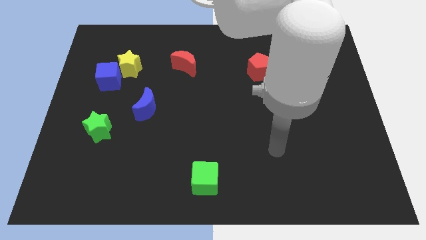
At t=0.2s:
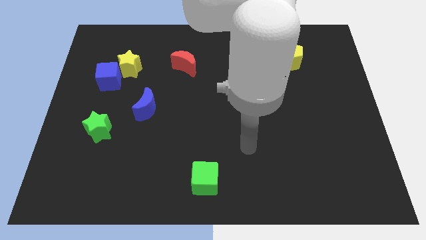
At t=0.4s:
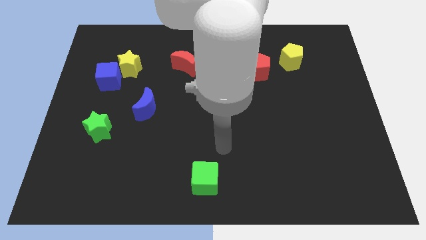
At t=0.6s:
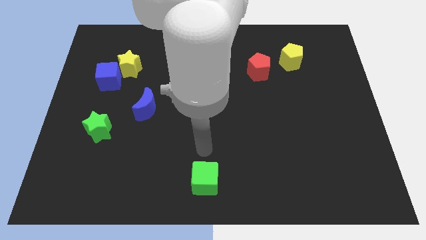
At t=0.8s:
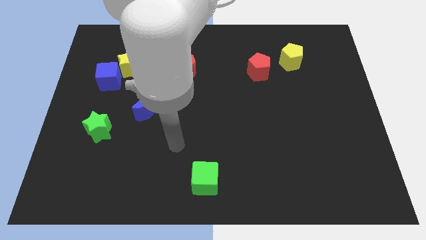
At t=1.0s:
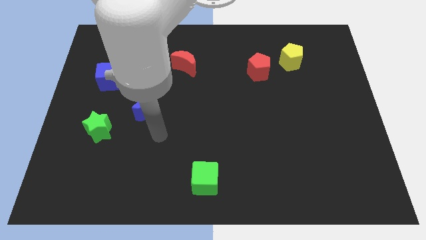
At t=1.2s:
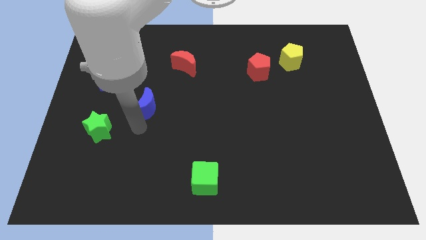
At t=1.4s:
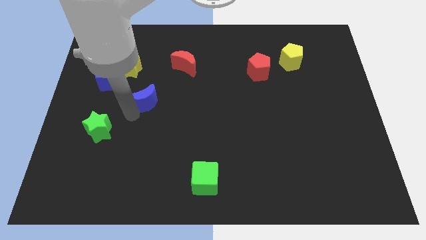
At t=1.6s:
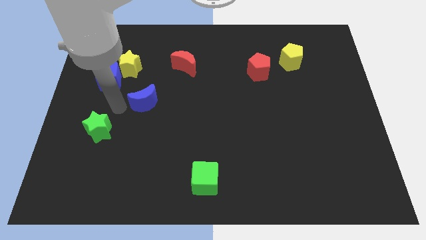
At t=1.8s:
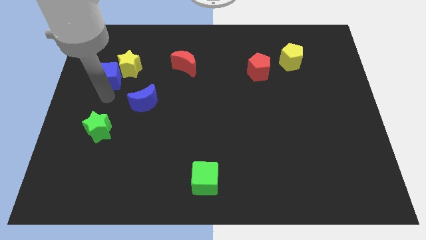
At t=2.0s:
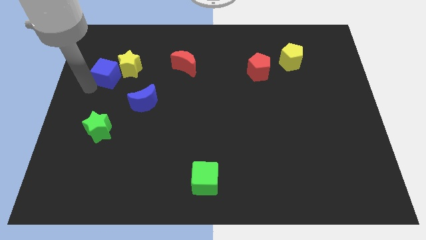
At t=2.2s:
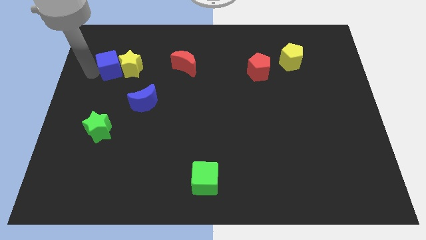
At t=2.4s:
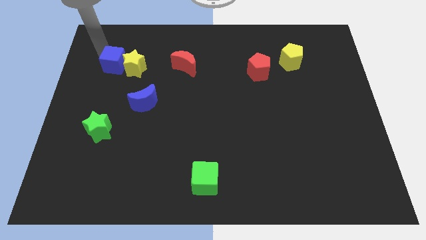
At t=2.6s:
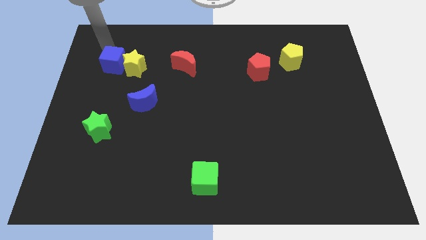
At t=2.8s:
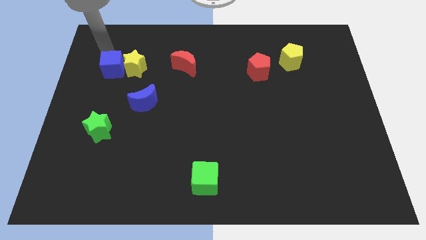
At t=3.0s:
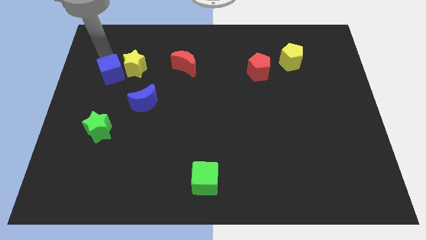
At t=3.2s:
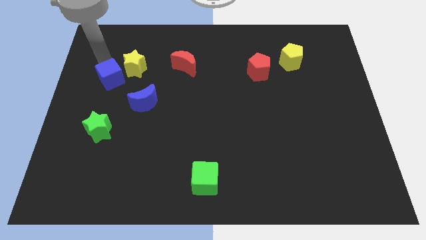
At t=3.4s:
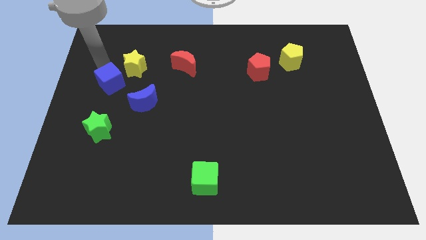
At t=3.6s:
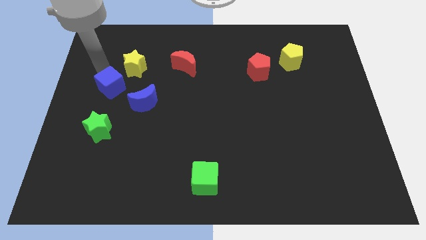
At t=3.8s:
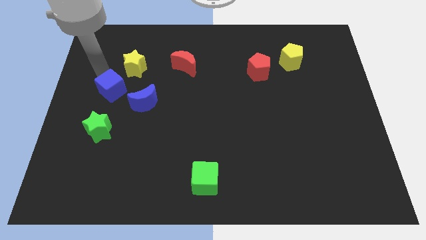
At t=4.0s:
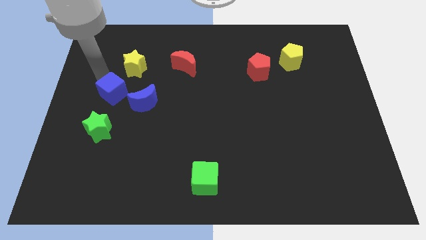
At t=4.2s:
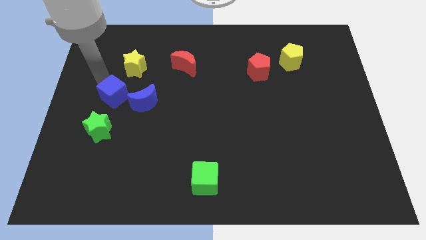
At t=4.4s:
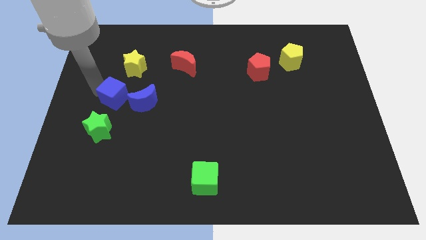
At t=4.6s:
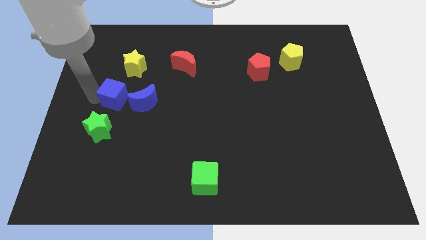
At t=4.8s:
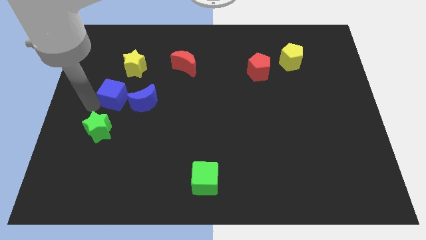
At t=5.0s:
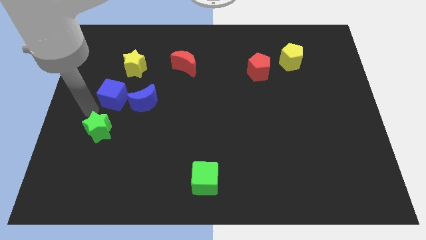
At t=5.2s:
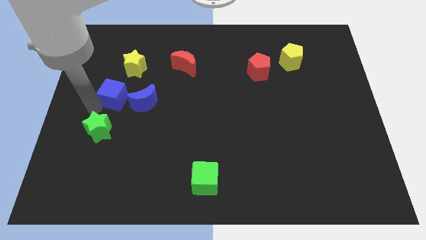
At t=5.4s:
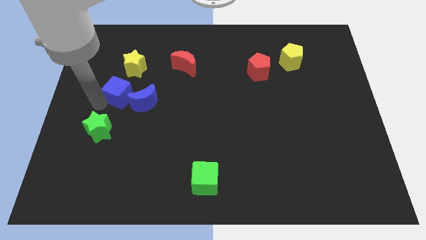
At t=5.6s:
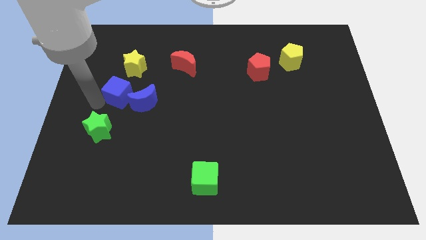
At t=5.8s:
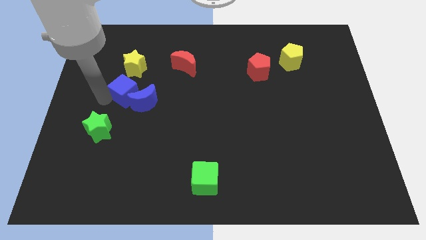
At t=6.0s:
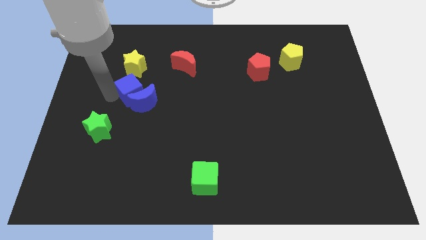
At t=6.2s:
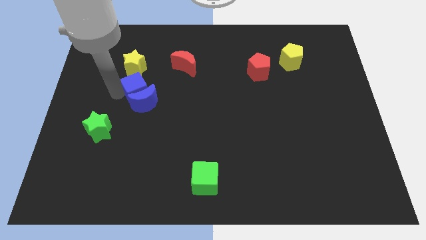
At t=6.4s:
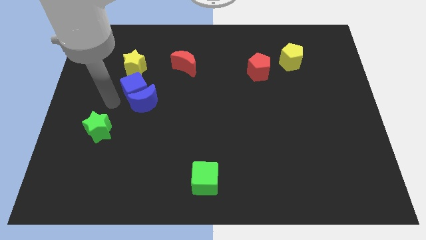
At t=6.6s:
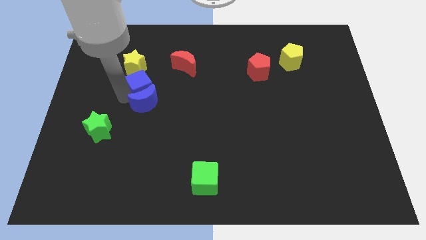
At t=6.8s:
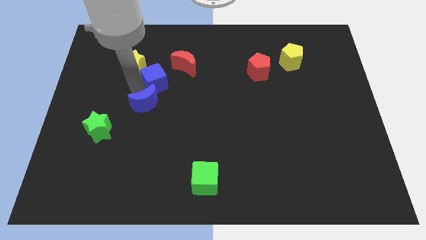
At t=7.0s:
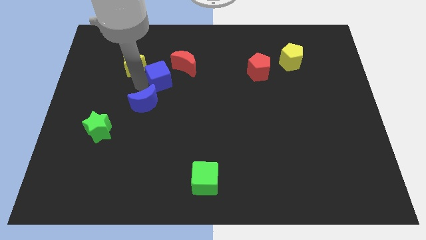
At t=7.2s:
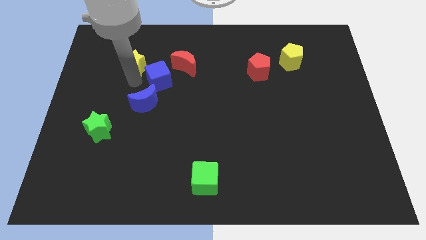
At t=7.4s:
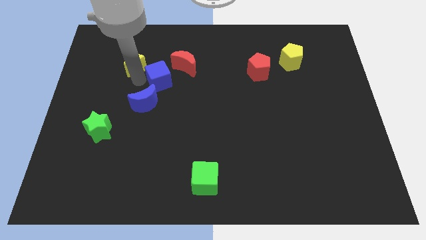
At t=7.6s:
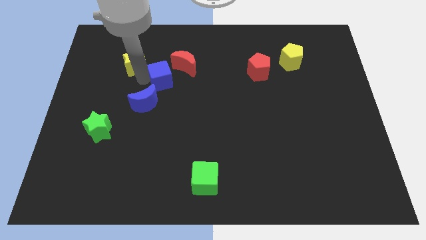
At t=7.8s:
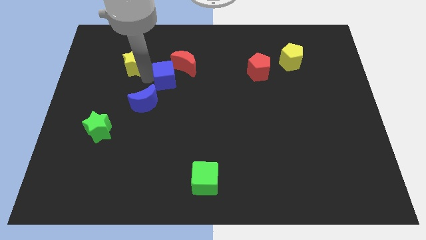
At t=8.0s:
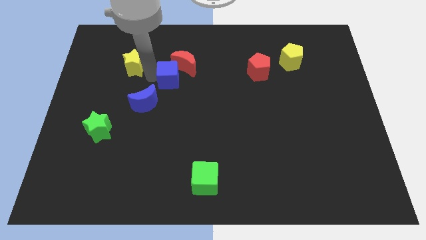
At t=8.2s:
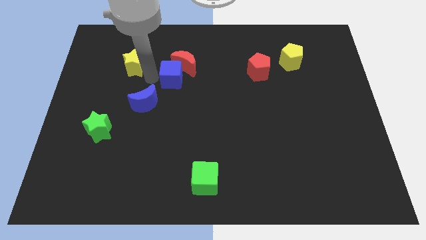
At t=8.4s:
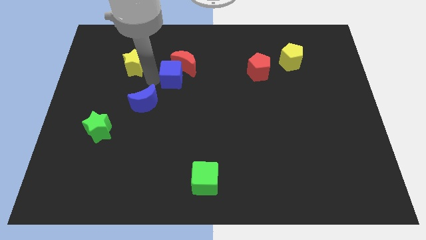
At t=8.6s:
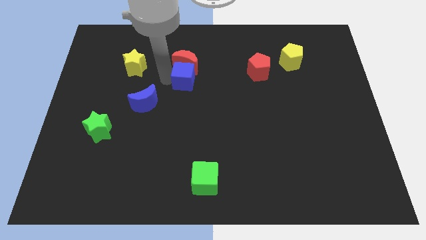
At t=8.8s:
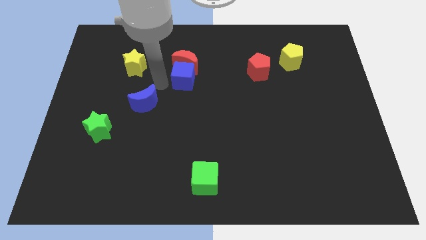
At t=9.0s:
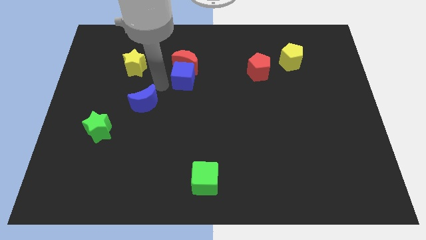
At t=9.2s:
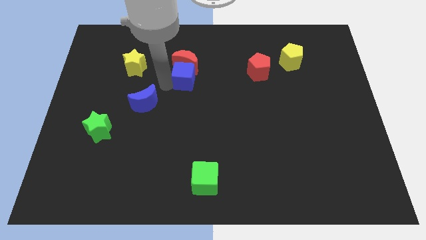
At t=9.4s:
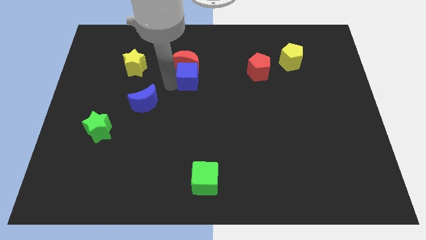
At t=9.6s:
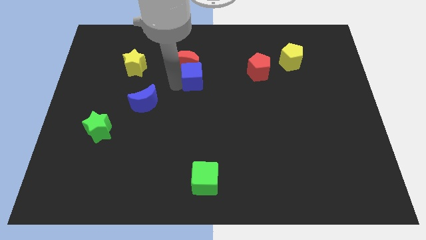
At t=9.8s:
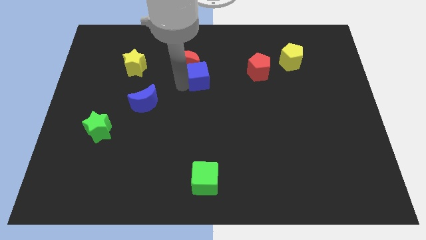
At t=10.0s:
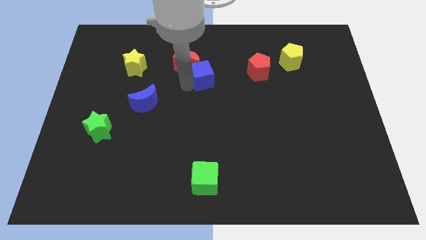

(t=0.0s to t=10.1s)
move the blue cube just right of the red moon

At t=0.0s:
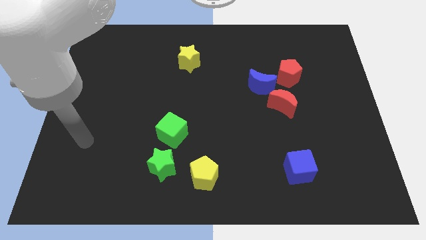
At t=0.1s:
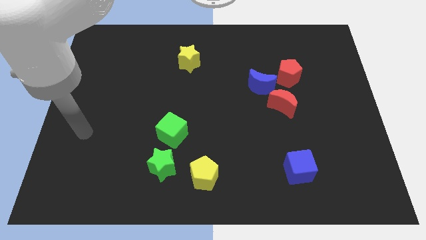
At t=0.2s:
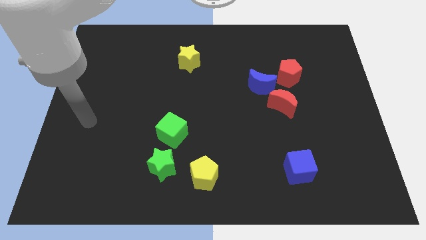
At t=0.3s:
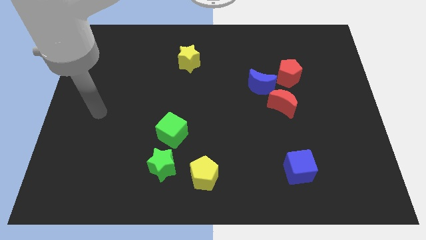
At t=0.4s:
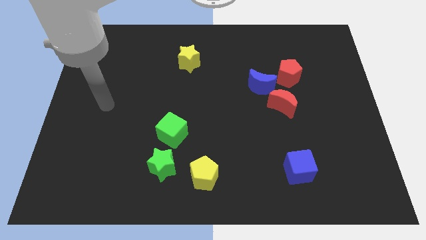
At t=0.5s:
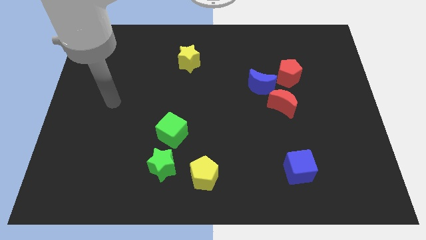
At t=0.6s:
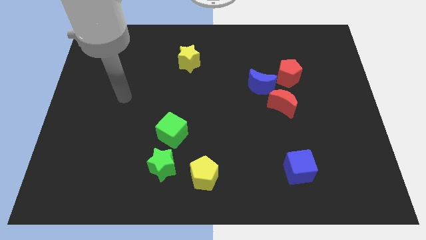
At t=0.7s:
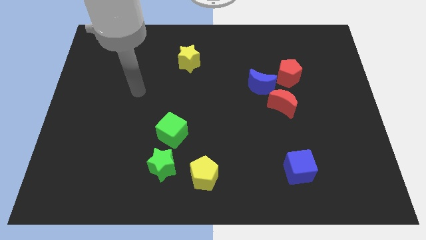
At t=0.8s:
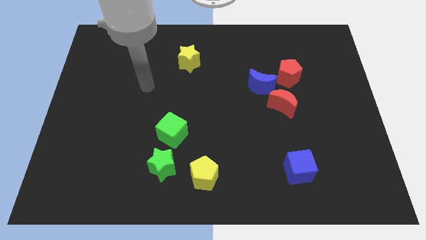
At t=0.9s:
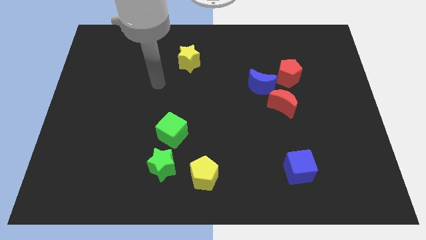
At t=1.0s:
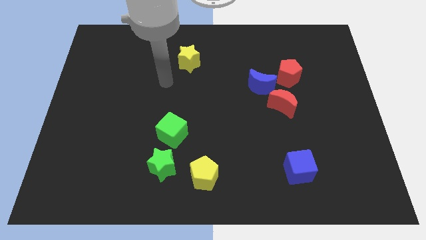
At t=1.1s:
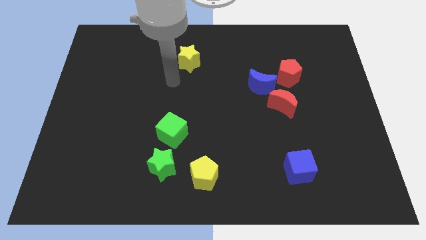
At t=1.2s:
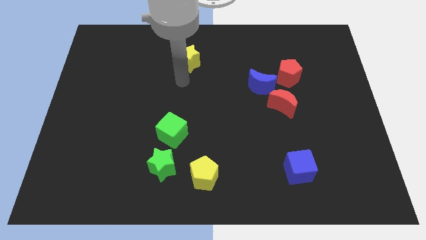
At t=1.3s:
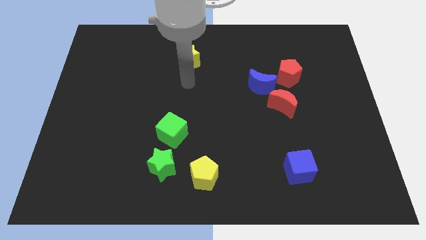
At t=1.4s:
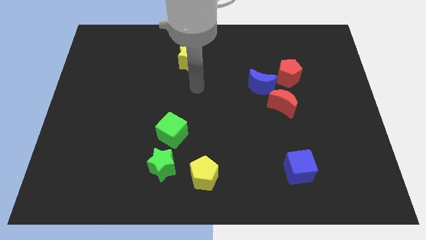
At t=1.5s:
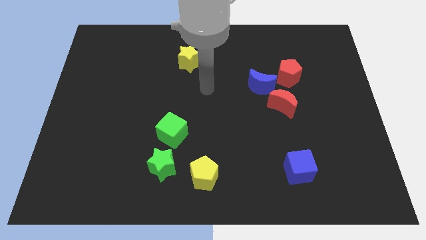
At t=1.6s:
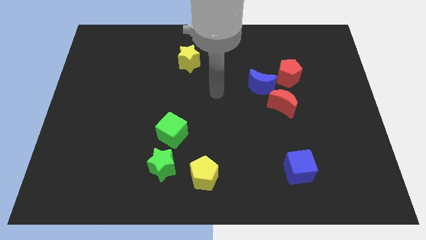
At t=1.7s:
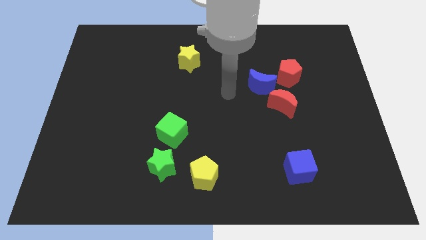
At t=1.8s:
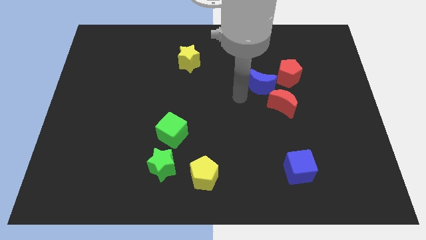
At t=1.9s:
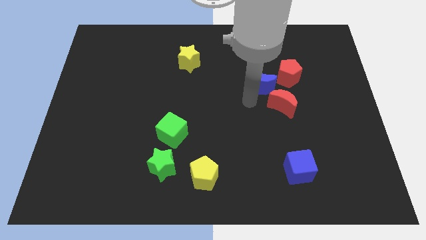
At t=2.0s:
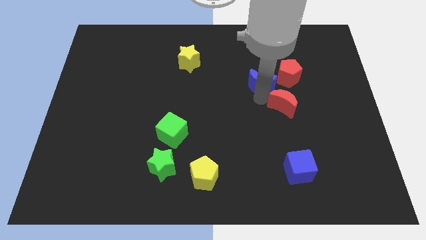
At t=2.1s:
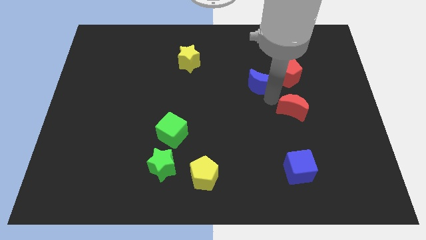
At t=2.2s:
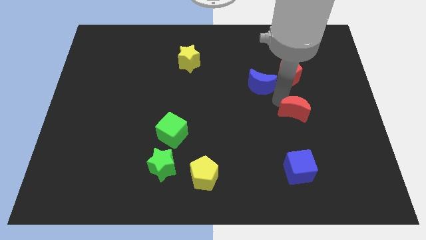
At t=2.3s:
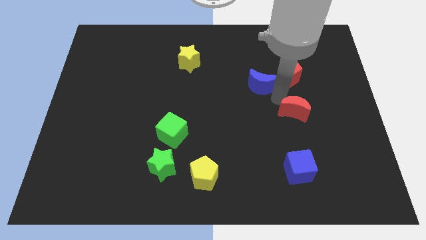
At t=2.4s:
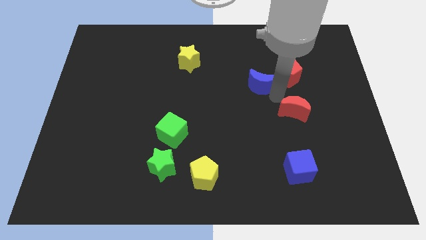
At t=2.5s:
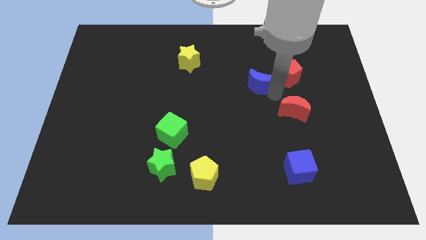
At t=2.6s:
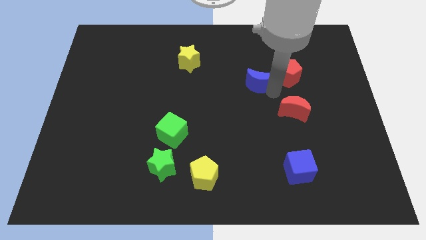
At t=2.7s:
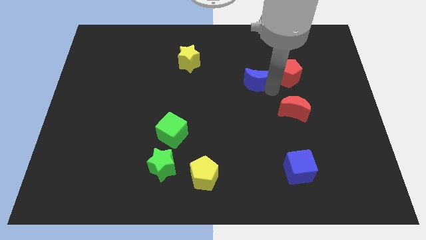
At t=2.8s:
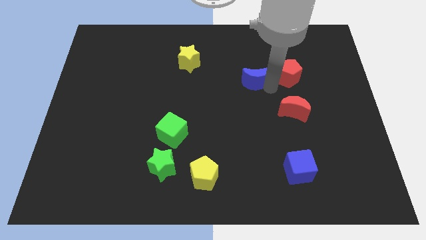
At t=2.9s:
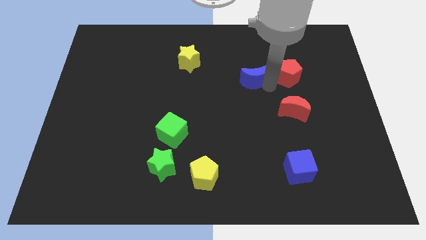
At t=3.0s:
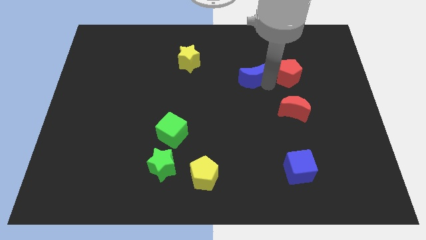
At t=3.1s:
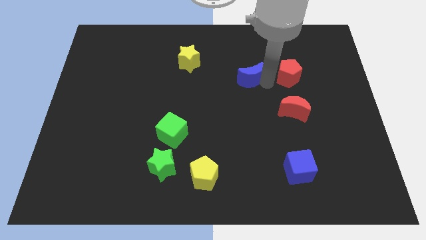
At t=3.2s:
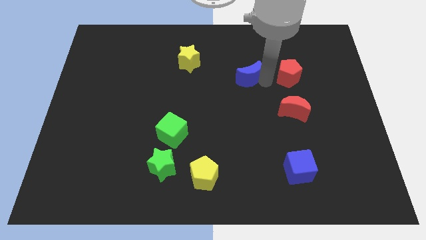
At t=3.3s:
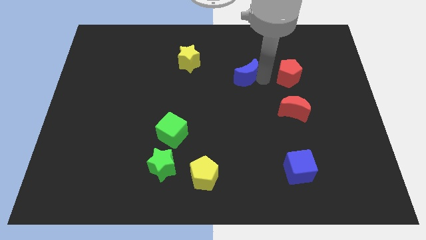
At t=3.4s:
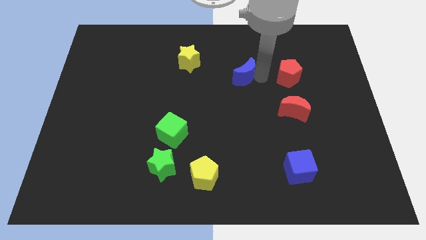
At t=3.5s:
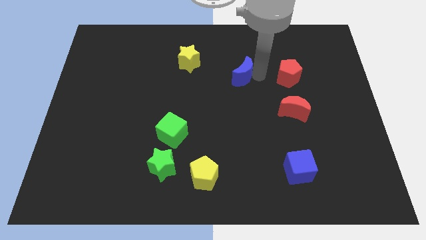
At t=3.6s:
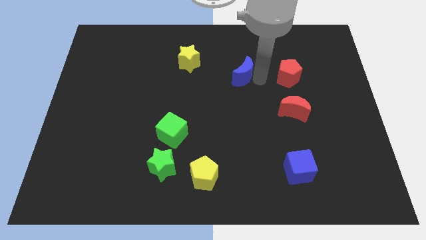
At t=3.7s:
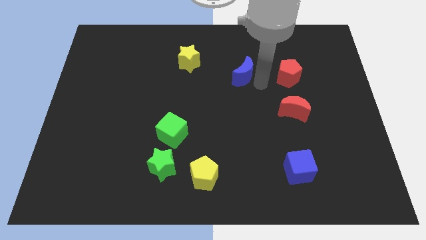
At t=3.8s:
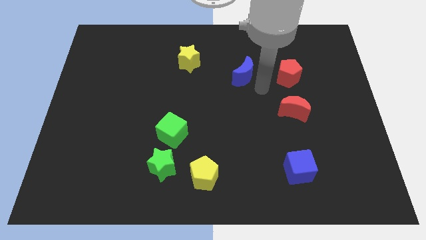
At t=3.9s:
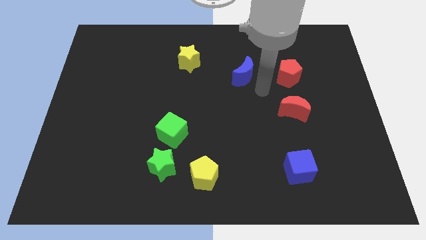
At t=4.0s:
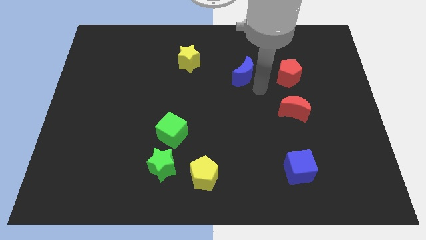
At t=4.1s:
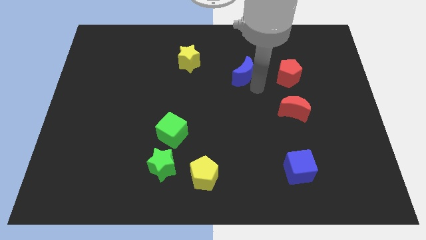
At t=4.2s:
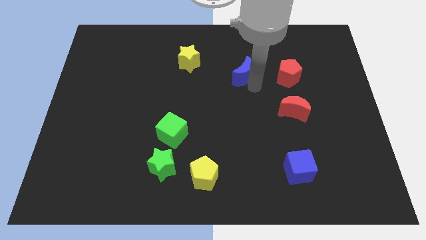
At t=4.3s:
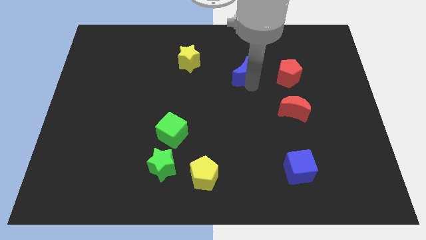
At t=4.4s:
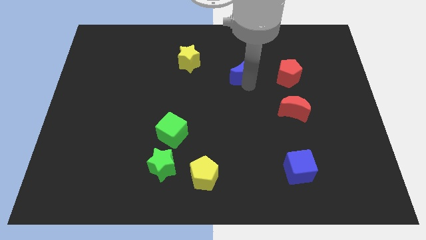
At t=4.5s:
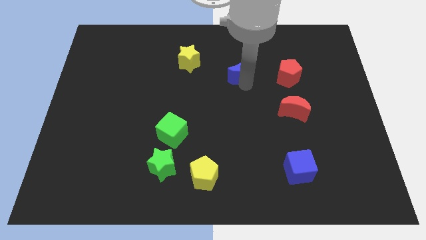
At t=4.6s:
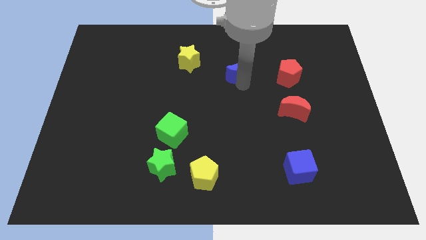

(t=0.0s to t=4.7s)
push the blue moon to the right of the yellow star
